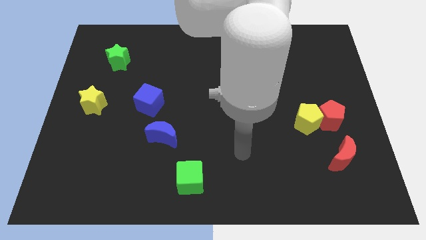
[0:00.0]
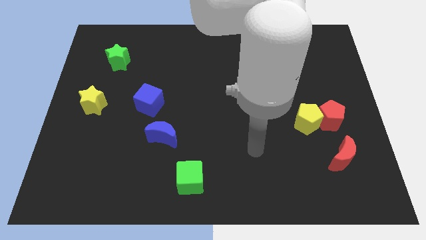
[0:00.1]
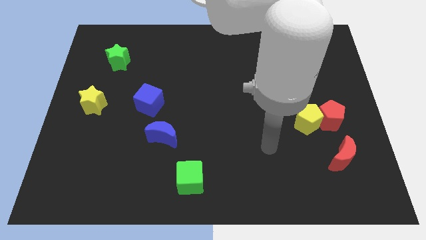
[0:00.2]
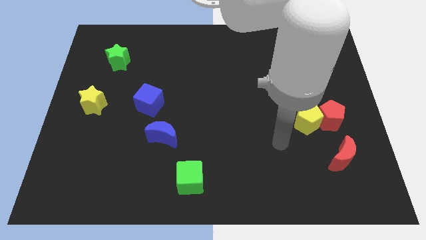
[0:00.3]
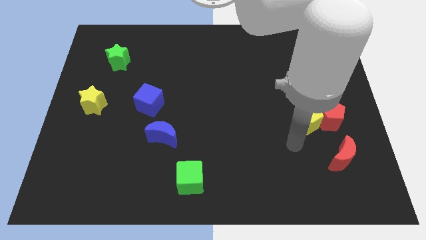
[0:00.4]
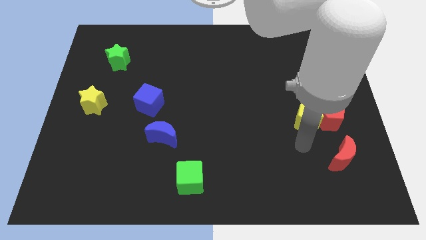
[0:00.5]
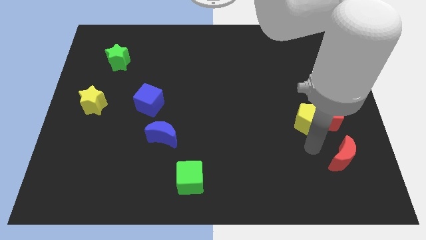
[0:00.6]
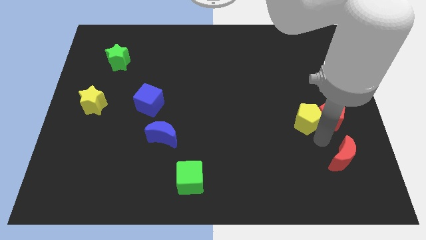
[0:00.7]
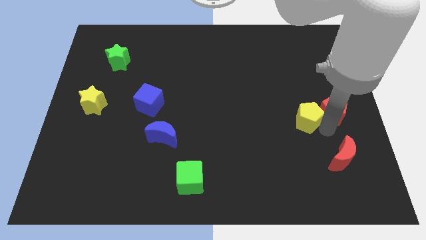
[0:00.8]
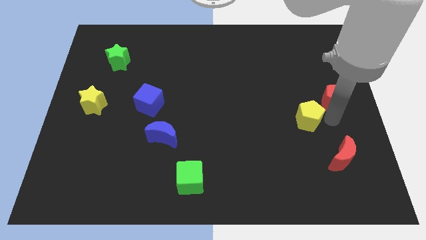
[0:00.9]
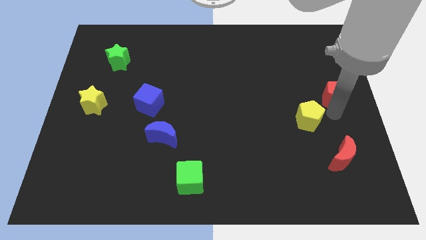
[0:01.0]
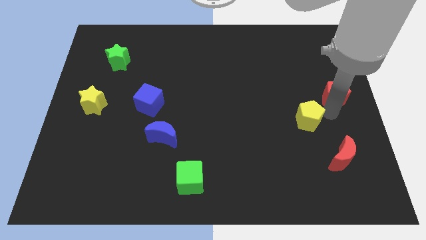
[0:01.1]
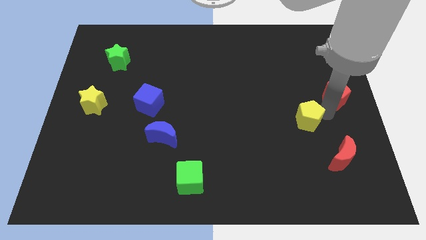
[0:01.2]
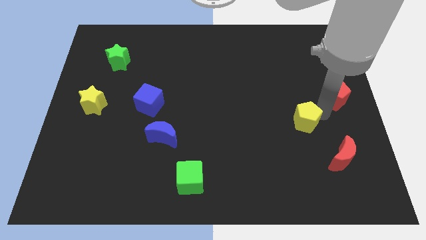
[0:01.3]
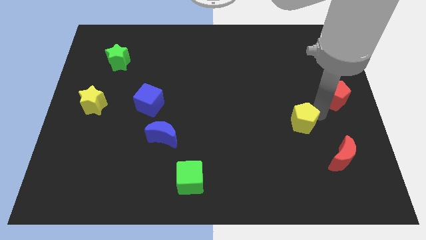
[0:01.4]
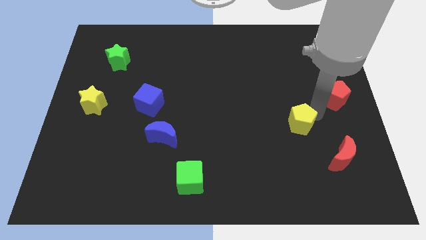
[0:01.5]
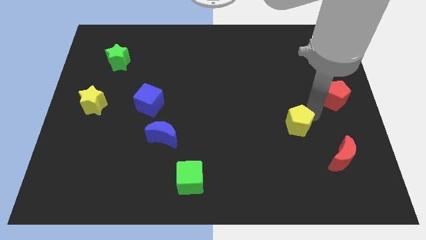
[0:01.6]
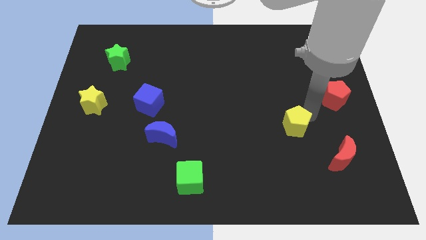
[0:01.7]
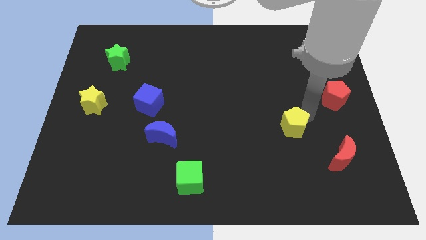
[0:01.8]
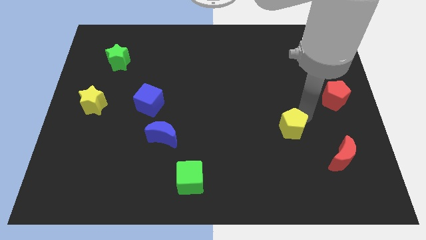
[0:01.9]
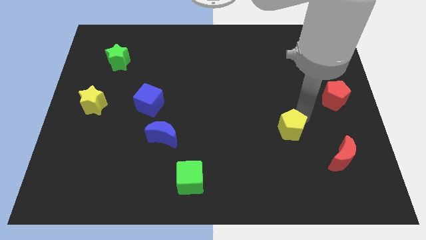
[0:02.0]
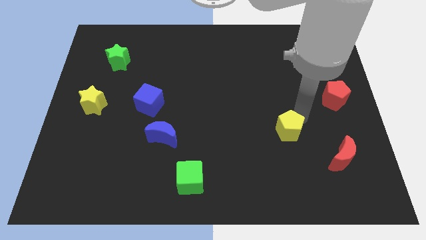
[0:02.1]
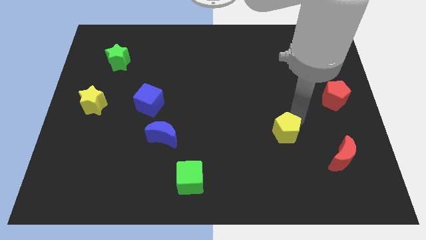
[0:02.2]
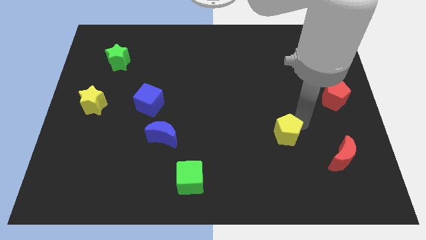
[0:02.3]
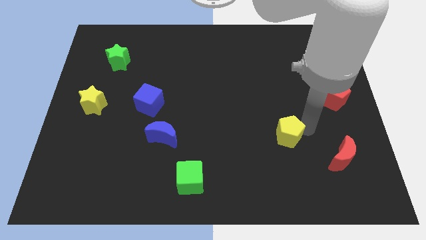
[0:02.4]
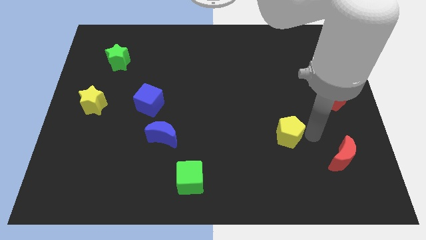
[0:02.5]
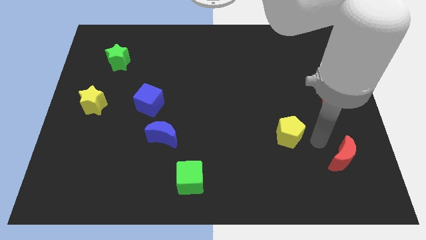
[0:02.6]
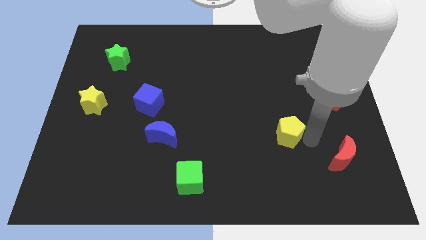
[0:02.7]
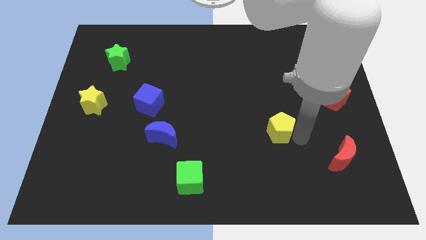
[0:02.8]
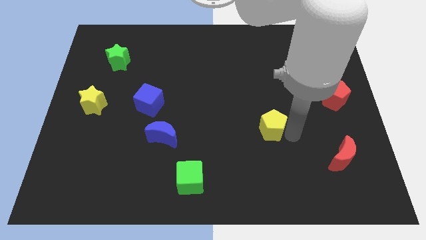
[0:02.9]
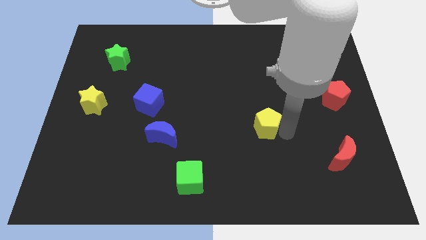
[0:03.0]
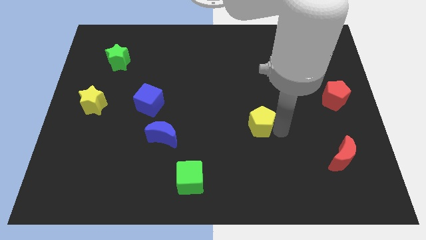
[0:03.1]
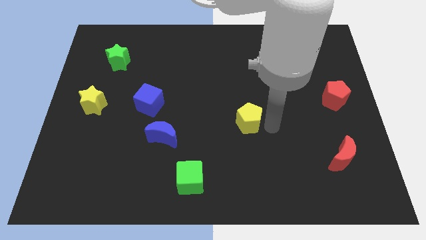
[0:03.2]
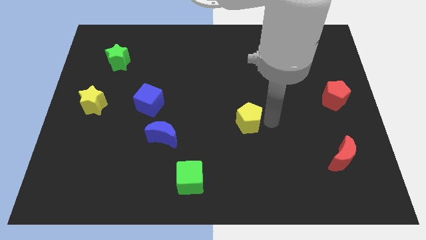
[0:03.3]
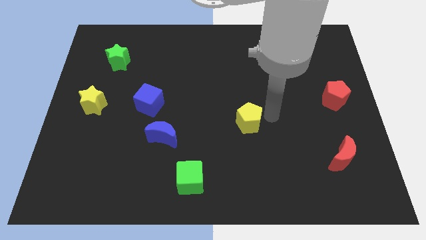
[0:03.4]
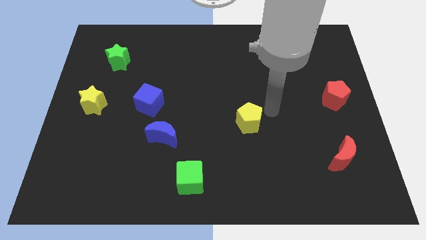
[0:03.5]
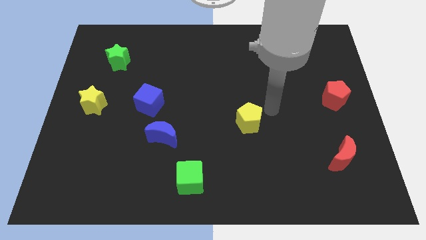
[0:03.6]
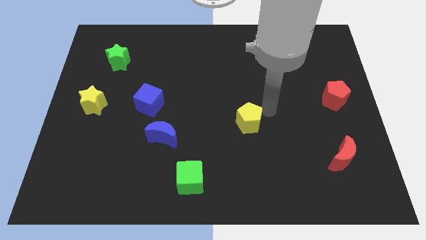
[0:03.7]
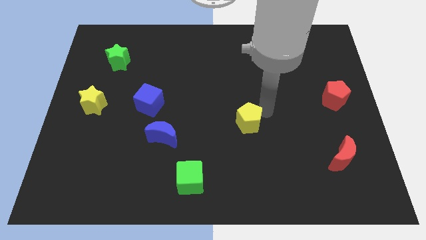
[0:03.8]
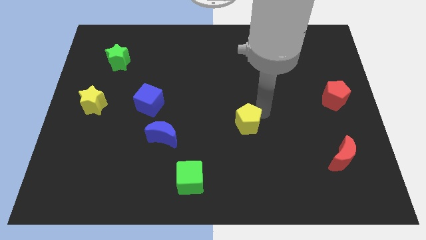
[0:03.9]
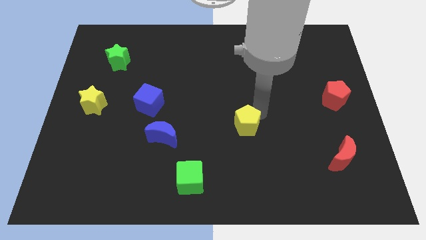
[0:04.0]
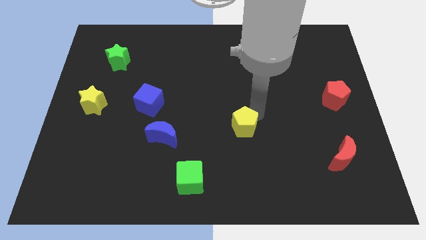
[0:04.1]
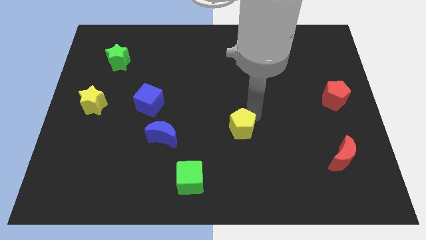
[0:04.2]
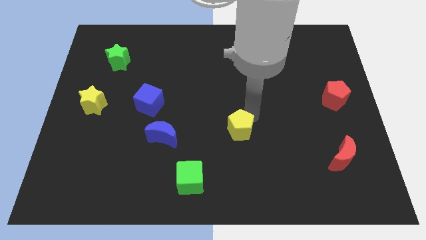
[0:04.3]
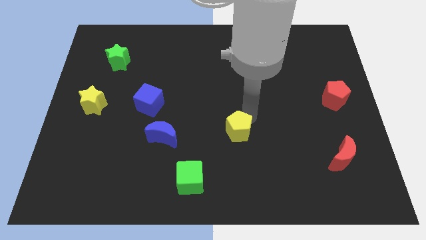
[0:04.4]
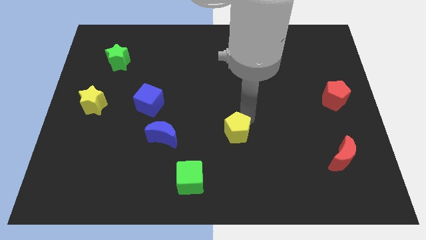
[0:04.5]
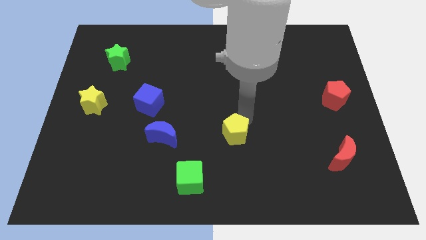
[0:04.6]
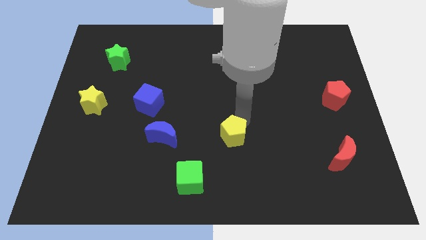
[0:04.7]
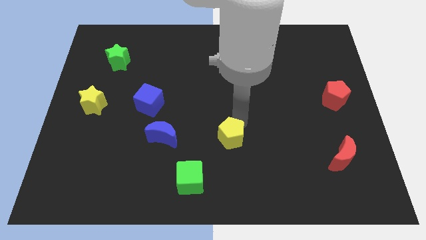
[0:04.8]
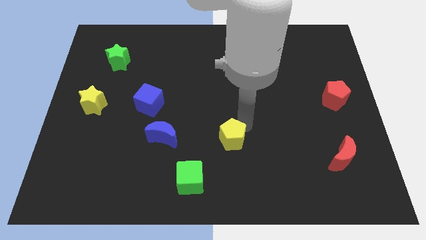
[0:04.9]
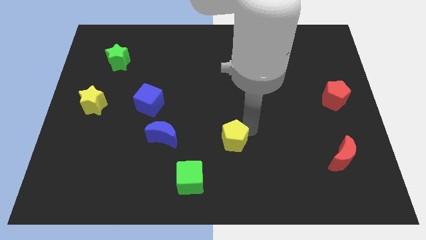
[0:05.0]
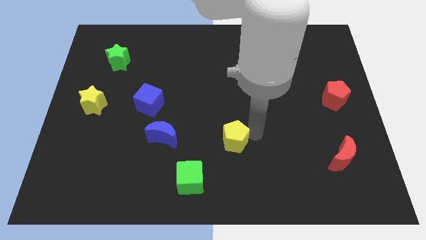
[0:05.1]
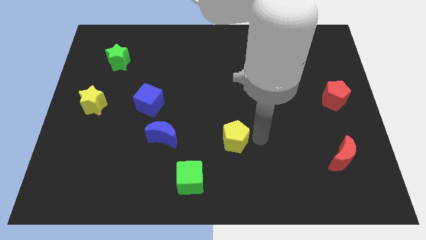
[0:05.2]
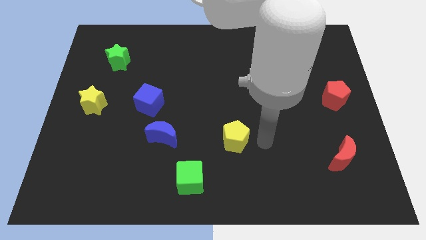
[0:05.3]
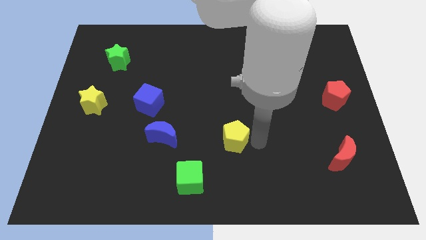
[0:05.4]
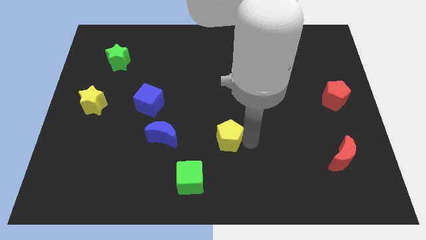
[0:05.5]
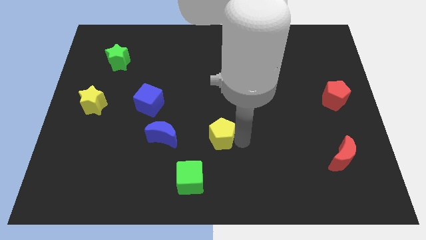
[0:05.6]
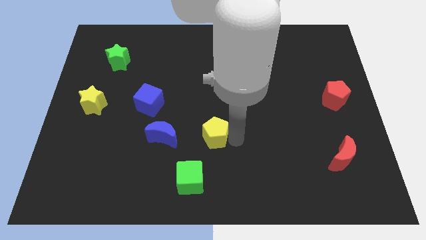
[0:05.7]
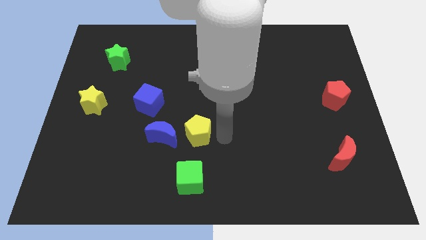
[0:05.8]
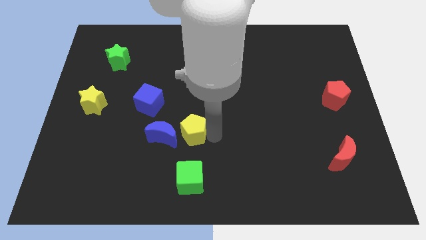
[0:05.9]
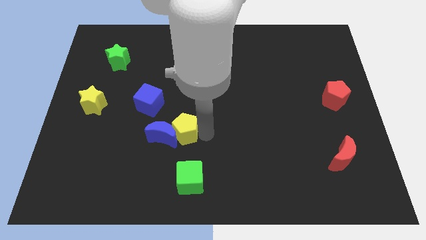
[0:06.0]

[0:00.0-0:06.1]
slide the yellow pentagon next to the blue moon

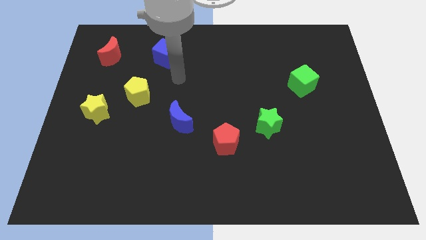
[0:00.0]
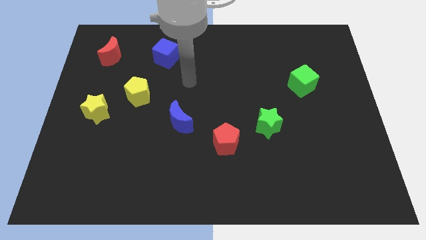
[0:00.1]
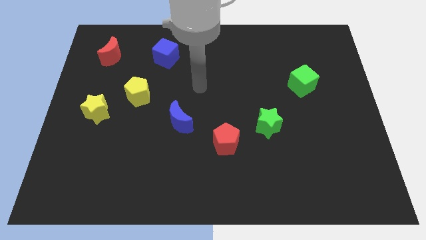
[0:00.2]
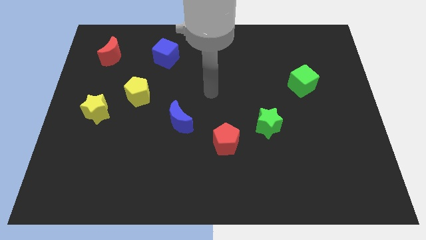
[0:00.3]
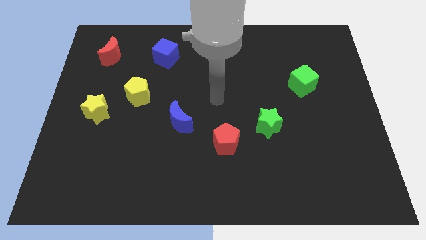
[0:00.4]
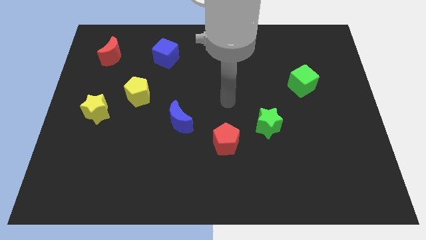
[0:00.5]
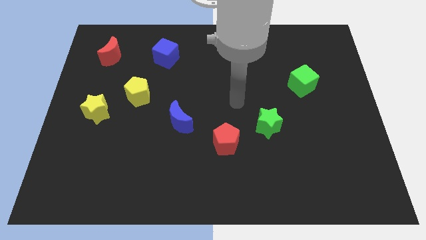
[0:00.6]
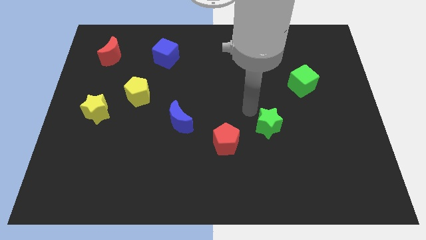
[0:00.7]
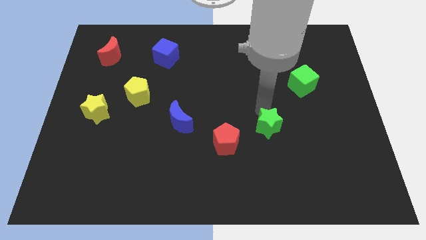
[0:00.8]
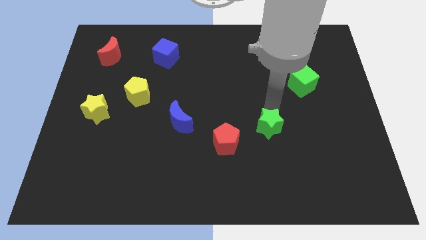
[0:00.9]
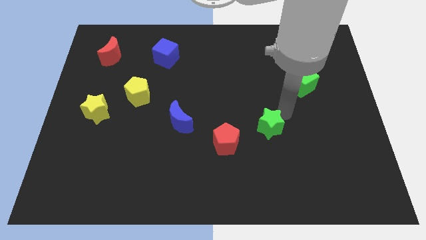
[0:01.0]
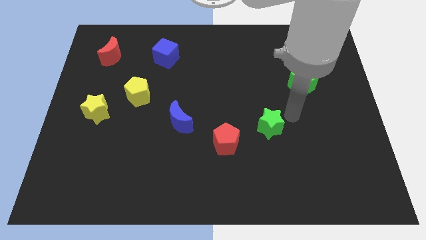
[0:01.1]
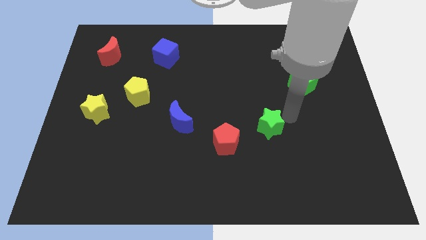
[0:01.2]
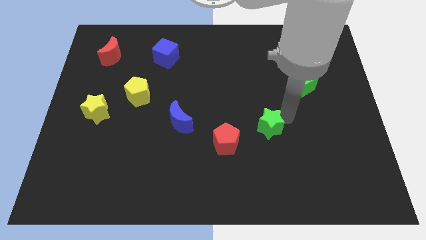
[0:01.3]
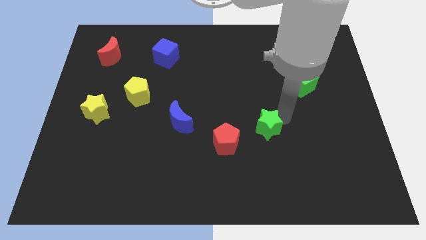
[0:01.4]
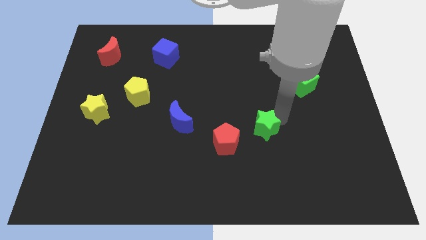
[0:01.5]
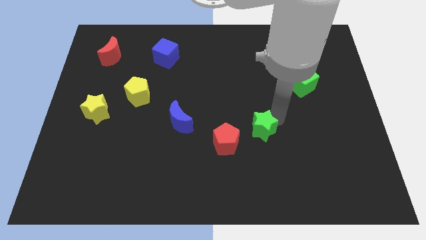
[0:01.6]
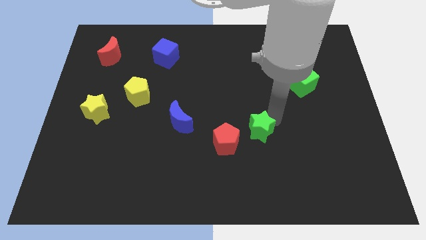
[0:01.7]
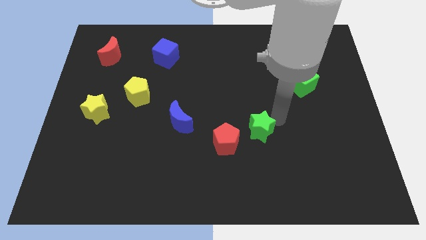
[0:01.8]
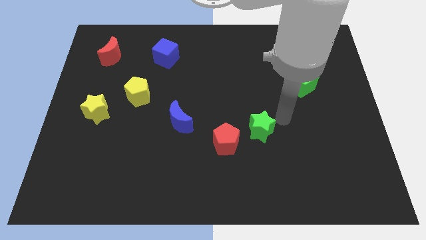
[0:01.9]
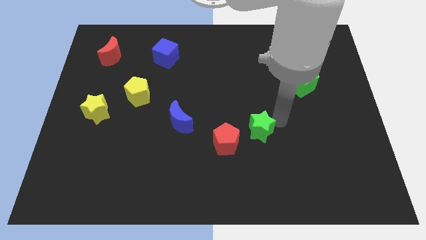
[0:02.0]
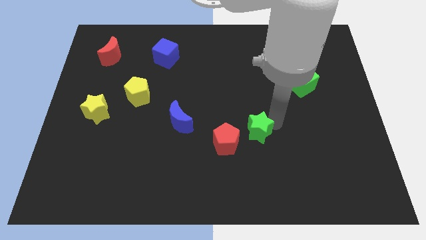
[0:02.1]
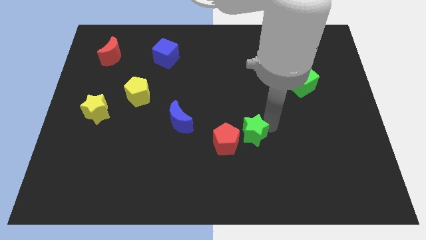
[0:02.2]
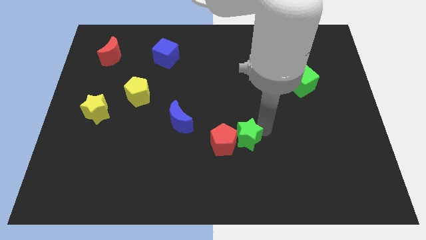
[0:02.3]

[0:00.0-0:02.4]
move the green star close to the red pentagon
